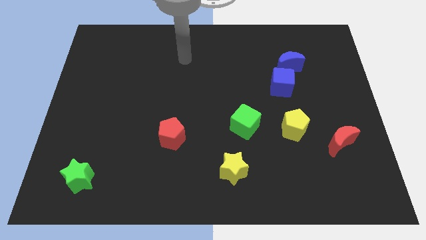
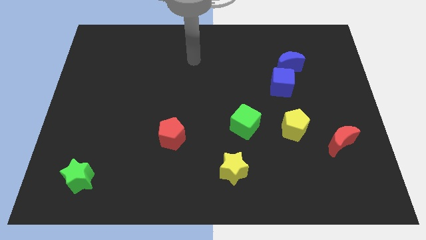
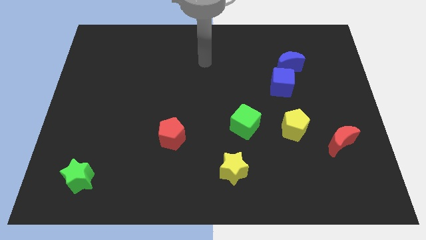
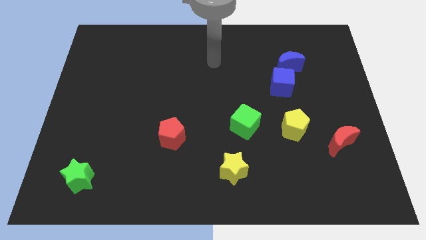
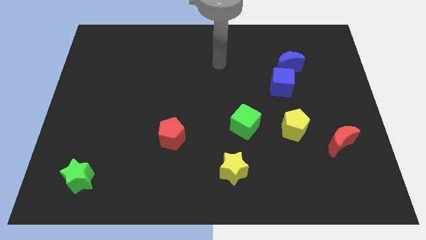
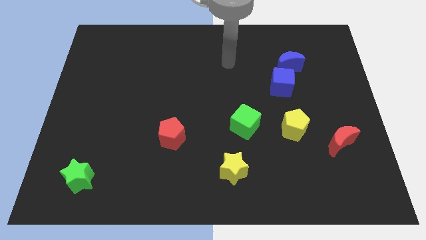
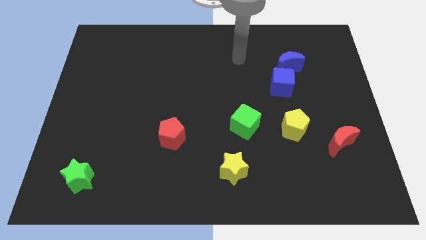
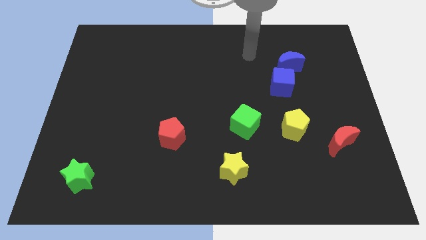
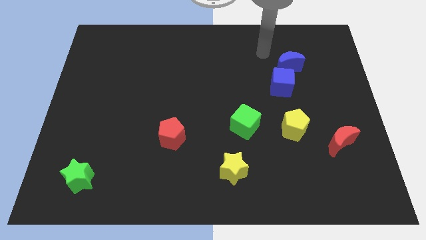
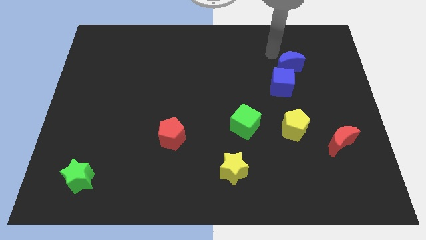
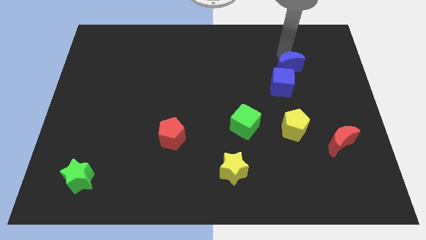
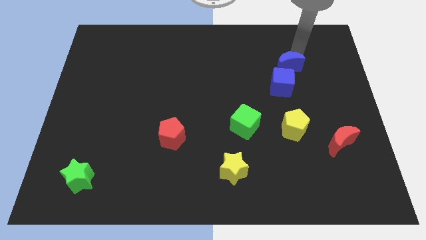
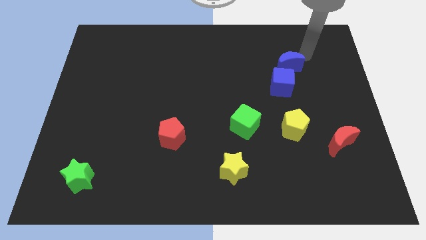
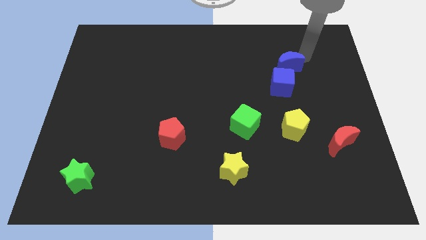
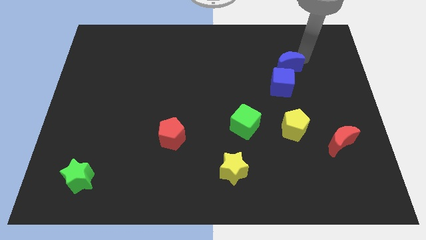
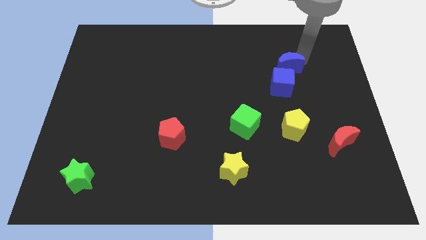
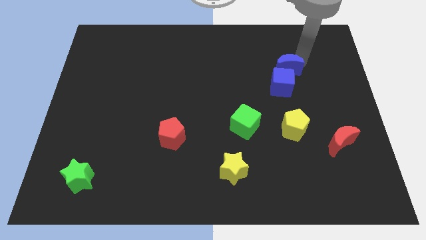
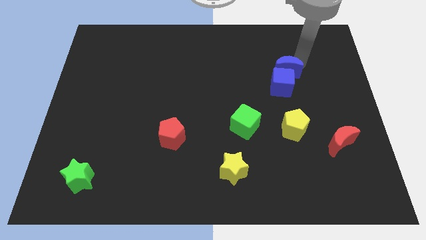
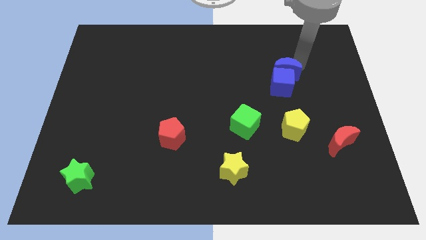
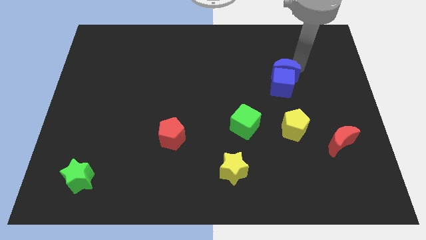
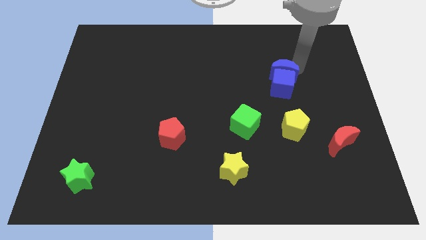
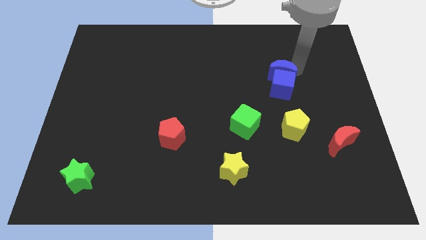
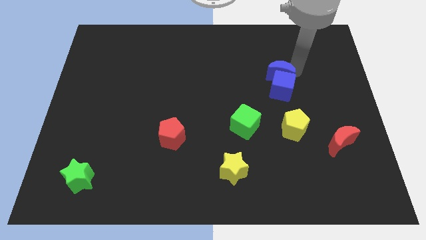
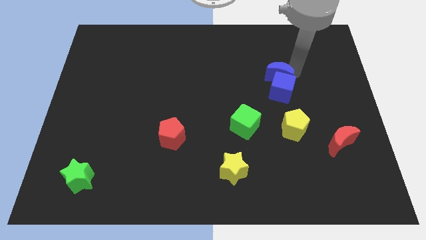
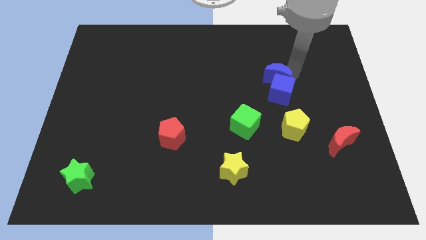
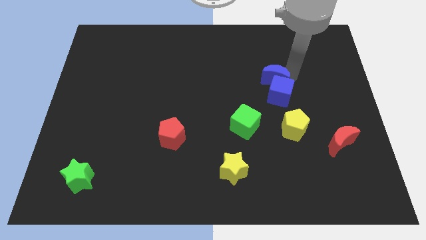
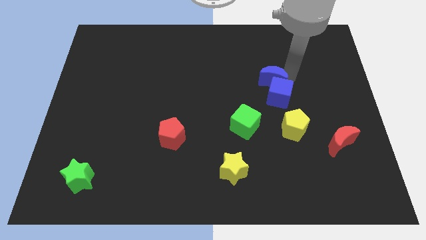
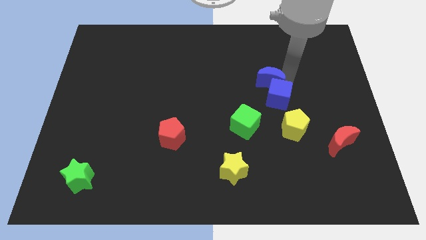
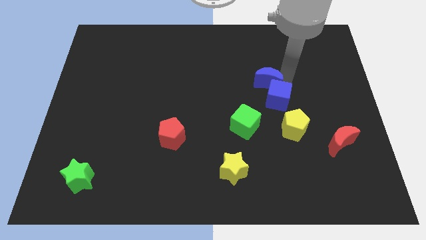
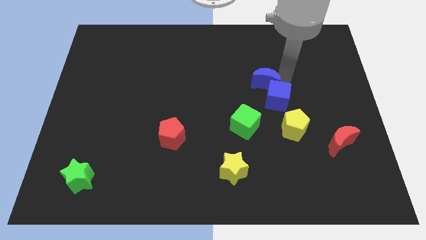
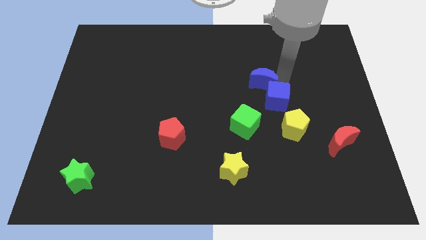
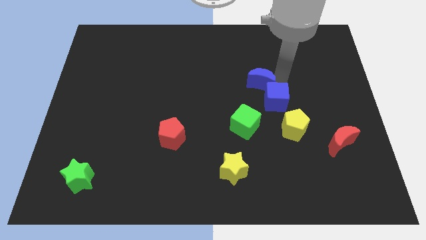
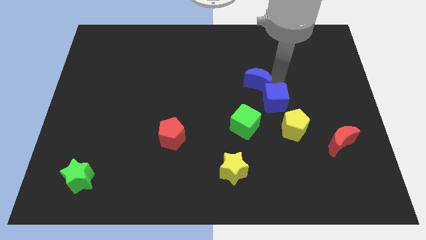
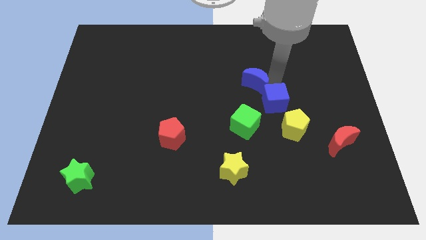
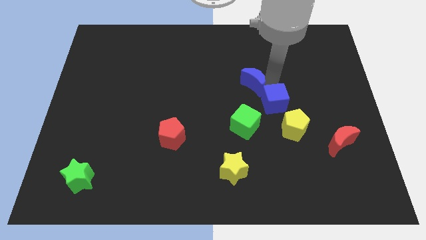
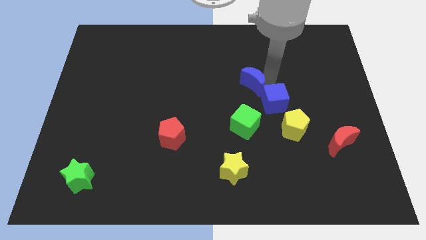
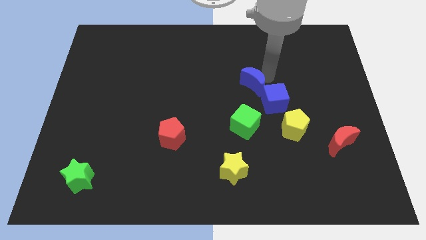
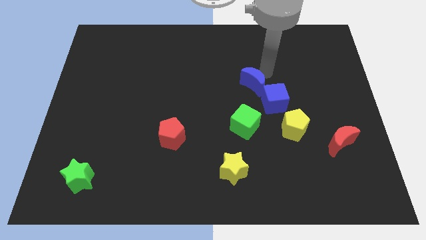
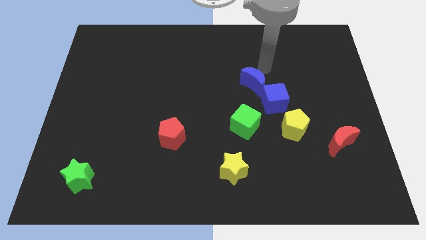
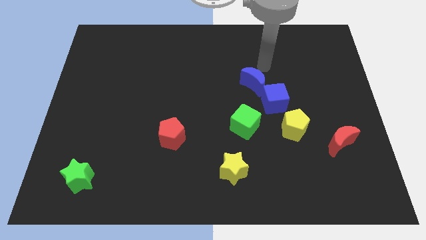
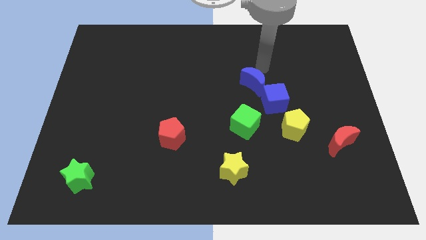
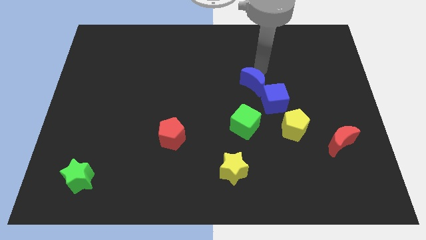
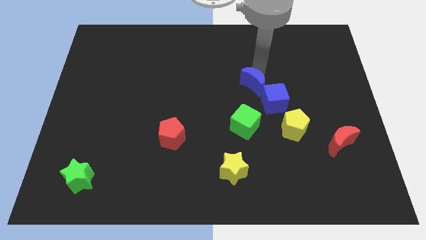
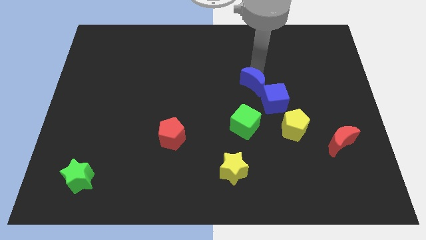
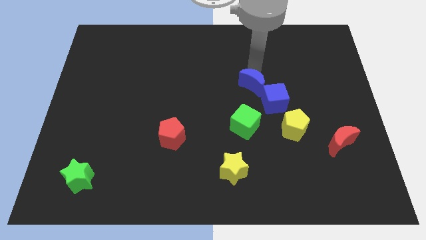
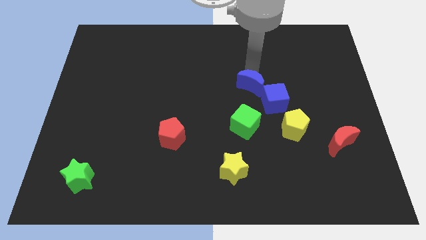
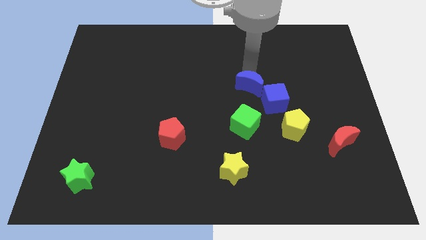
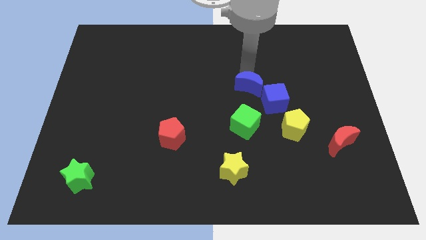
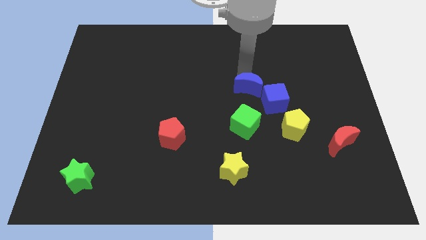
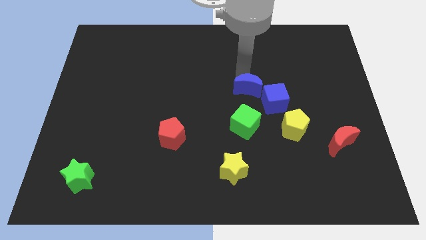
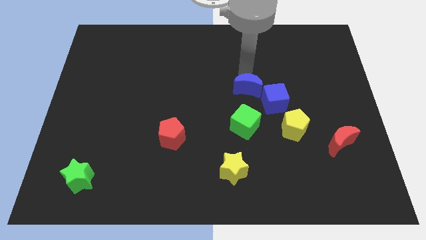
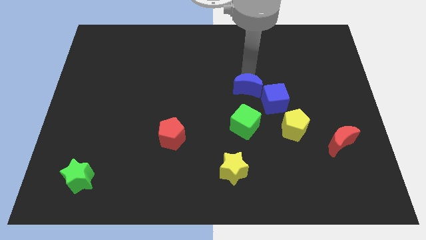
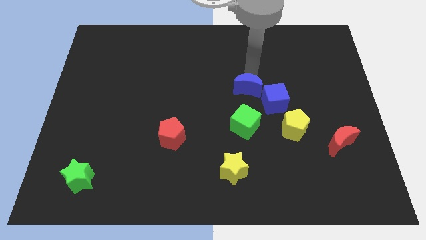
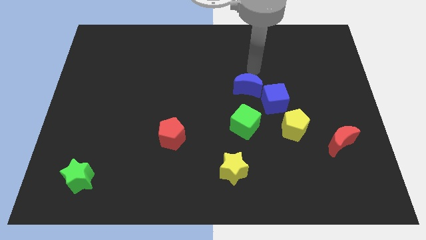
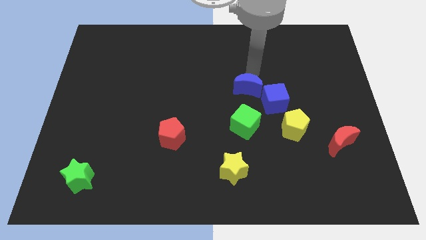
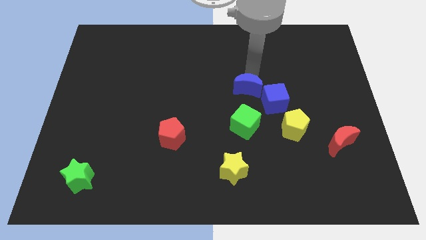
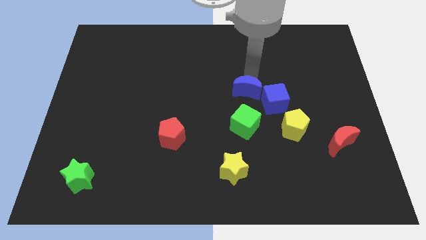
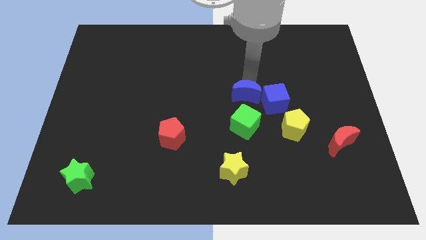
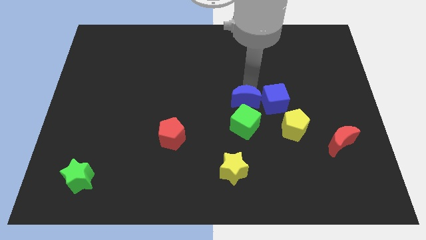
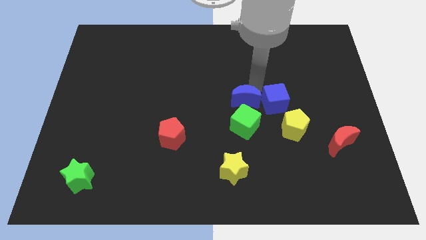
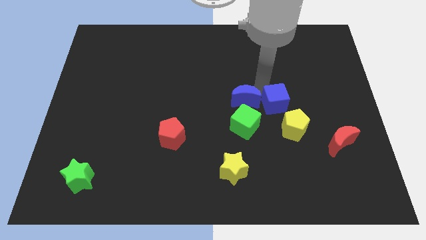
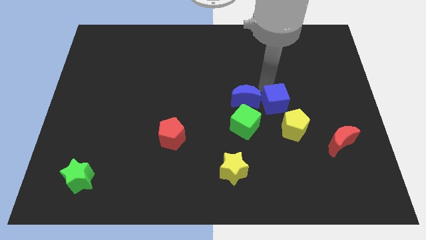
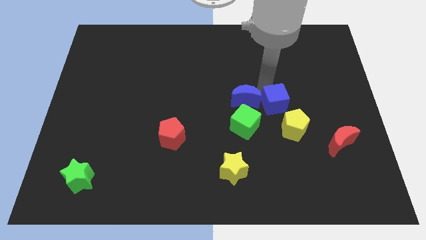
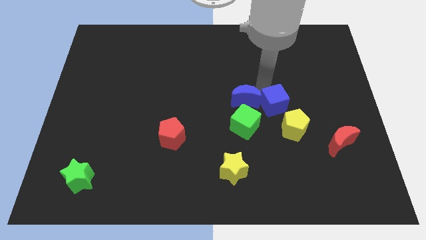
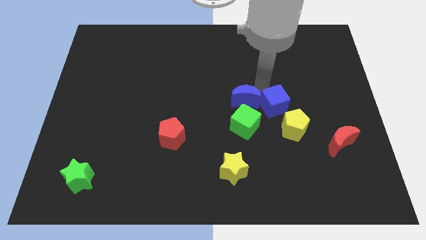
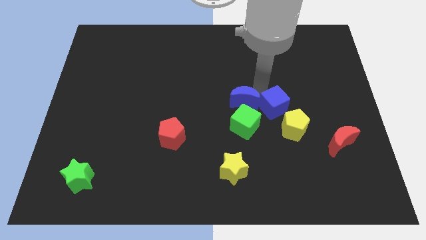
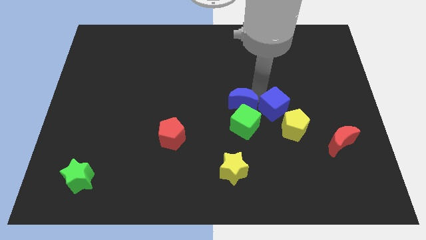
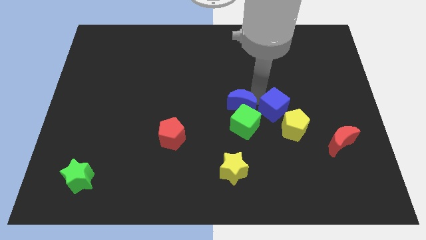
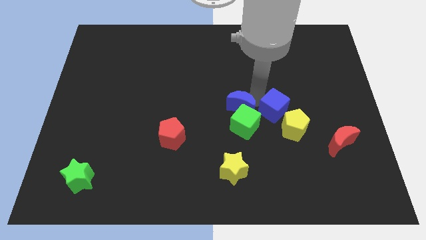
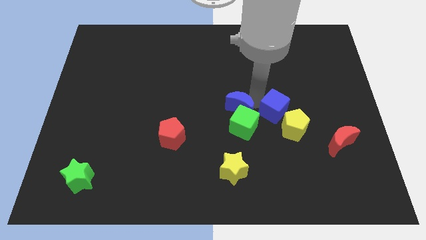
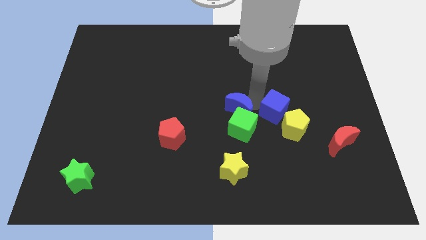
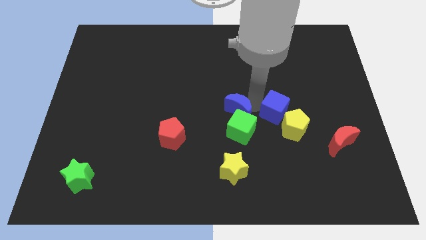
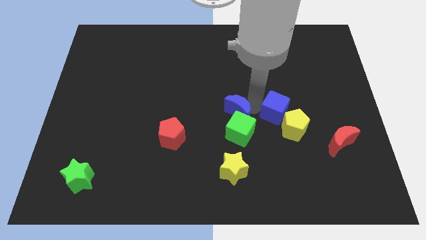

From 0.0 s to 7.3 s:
push the blue moon down and then left

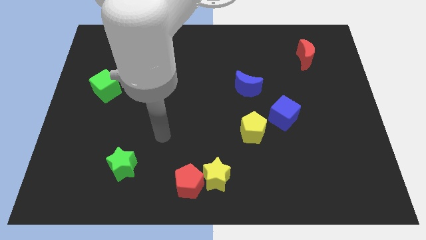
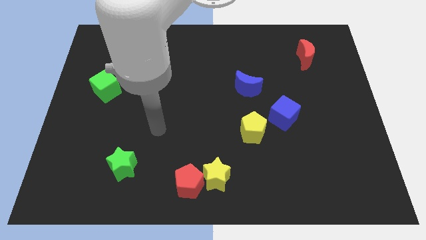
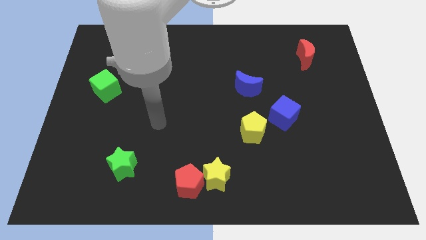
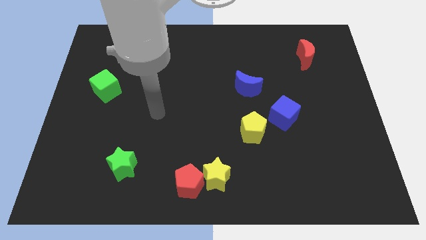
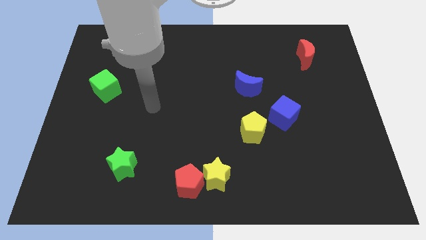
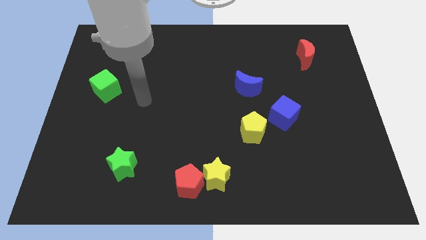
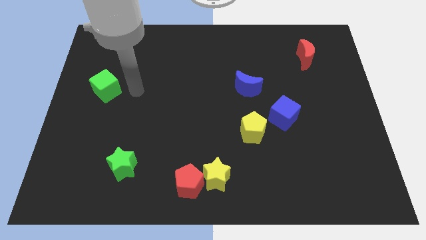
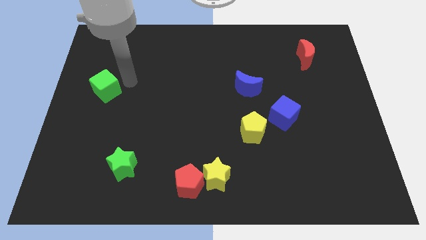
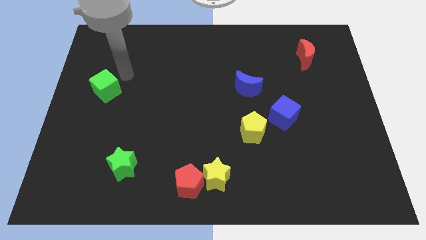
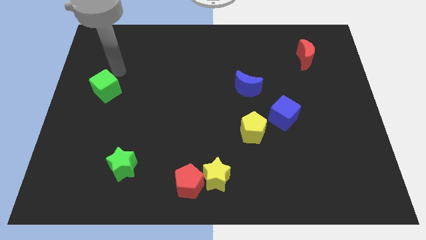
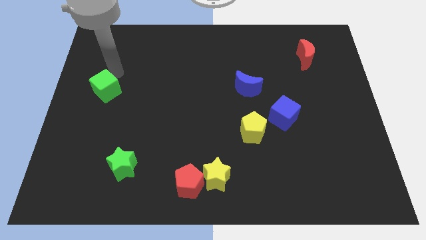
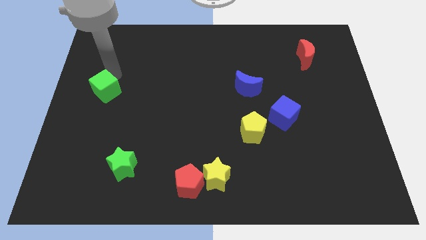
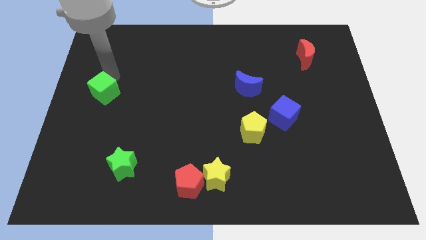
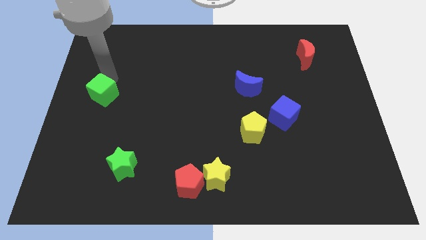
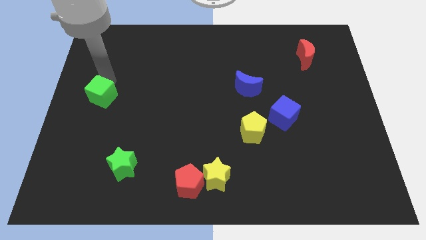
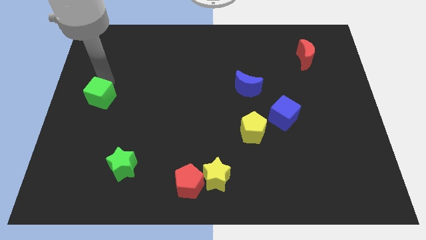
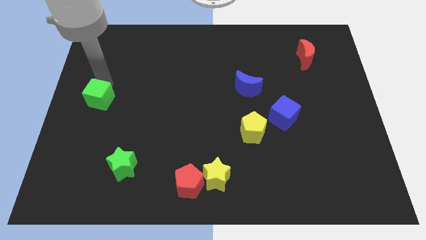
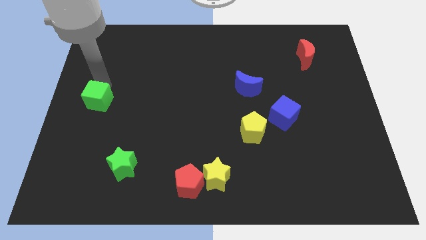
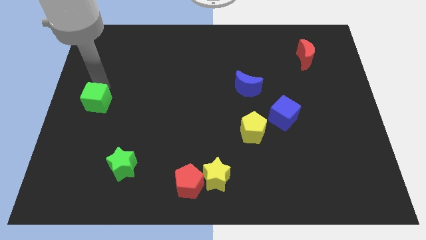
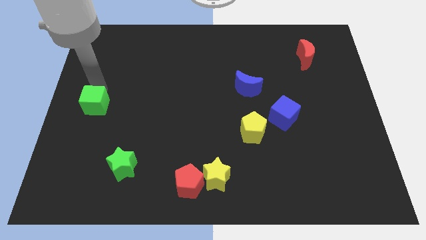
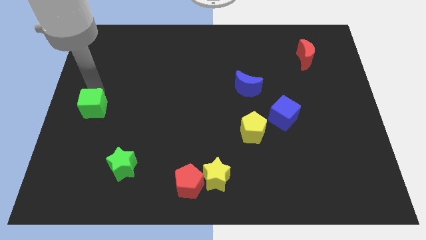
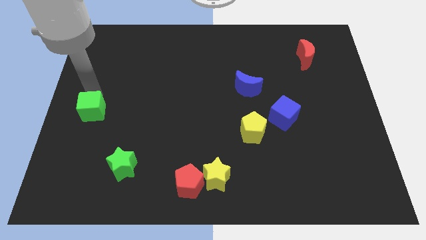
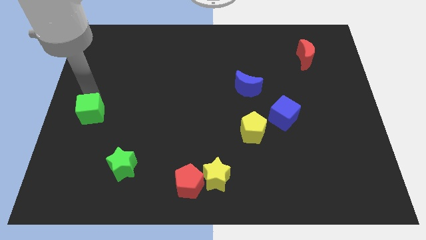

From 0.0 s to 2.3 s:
move the green cube a little downwards
